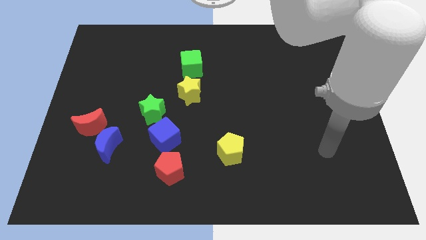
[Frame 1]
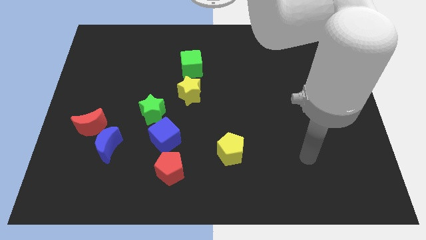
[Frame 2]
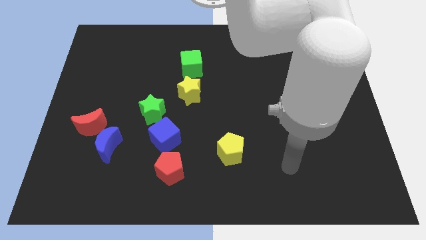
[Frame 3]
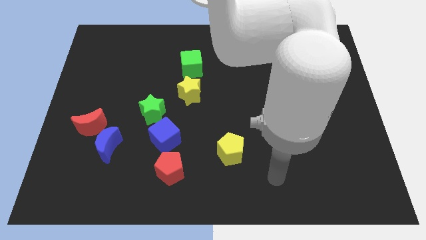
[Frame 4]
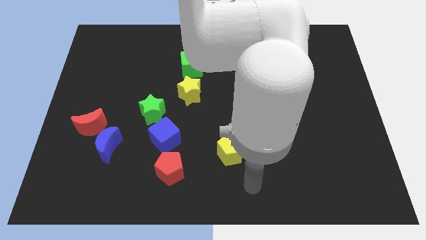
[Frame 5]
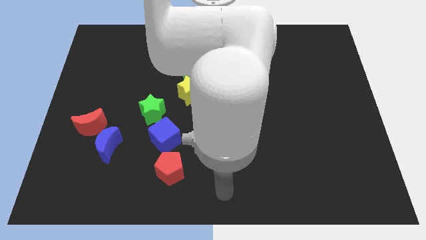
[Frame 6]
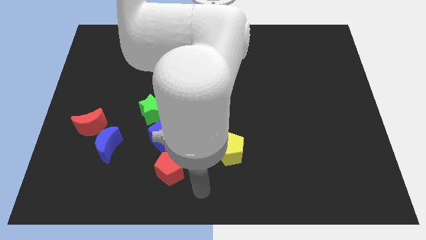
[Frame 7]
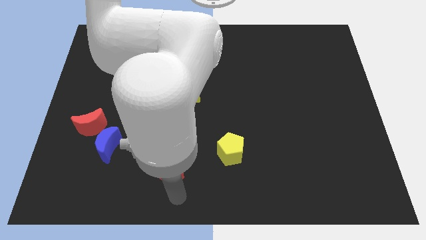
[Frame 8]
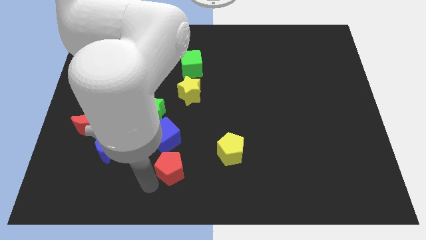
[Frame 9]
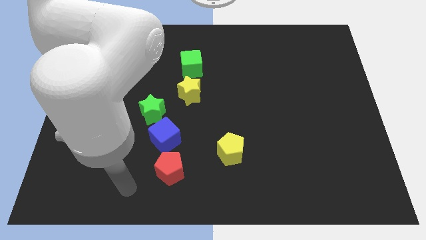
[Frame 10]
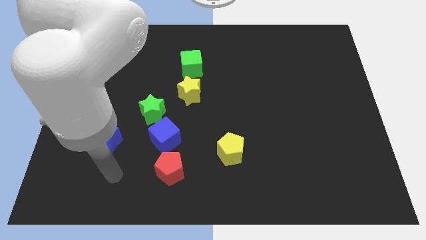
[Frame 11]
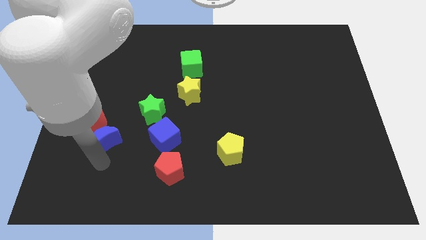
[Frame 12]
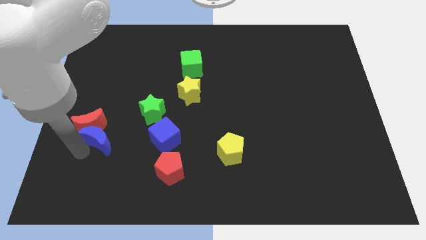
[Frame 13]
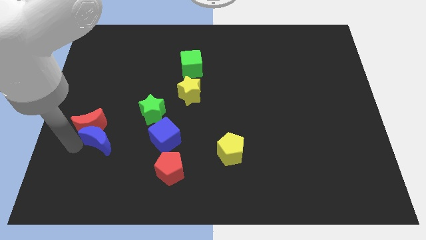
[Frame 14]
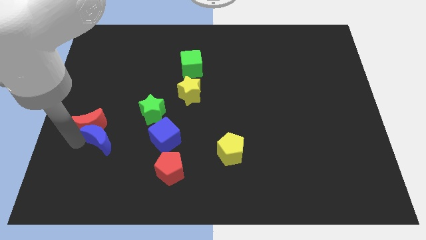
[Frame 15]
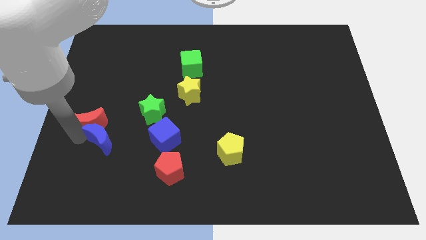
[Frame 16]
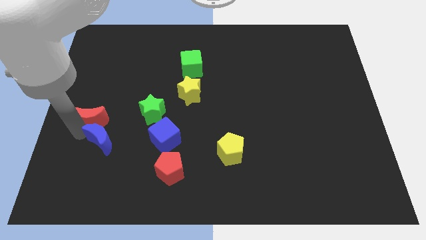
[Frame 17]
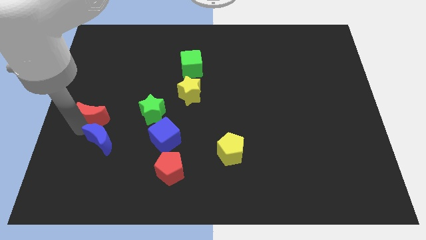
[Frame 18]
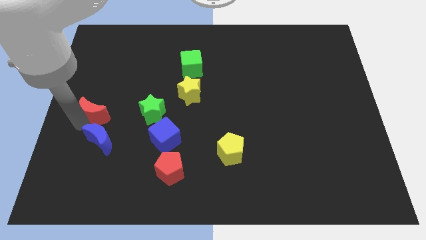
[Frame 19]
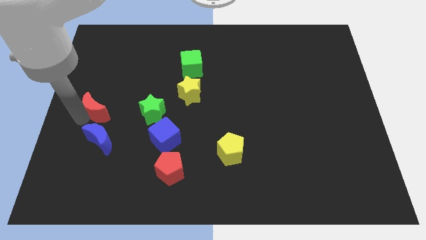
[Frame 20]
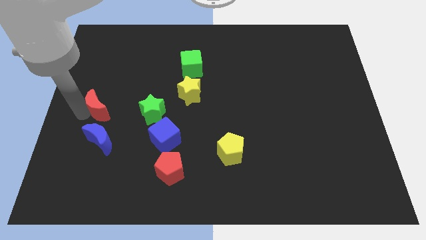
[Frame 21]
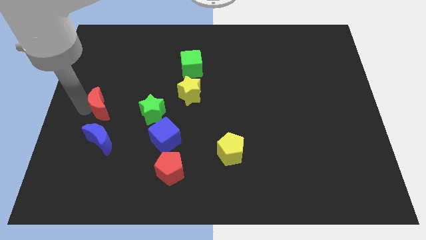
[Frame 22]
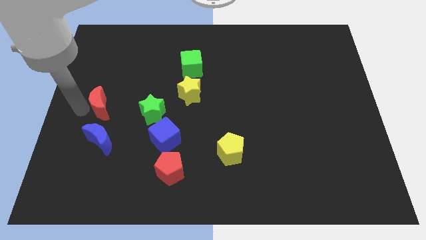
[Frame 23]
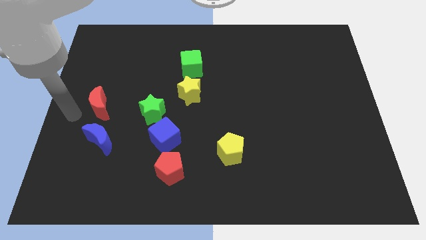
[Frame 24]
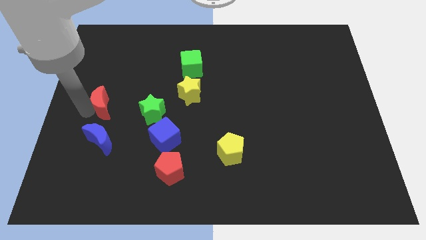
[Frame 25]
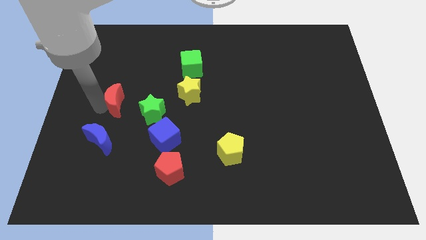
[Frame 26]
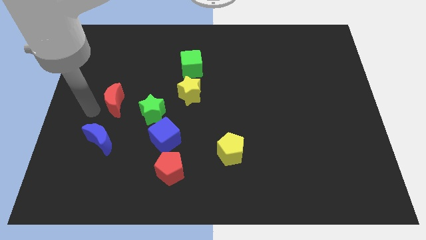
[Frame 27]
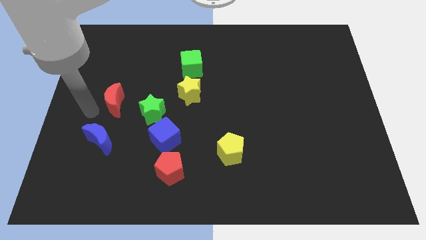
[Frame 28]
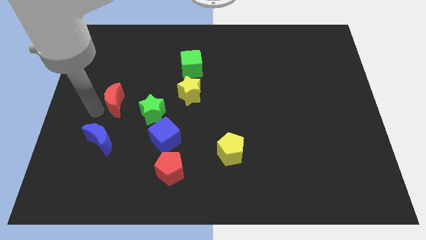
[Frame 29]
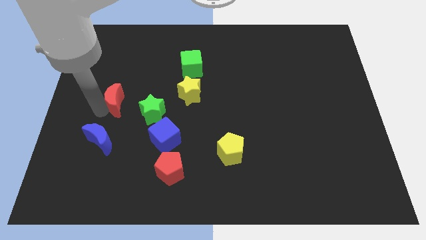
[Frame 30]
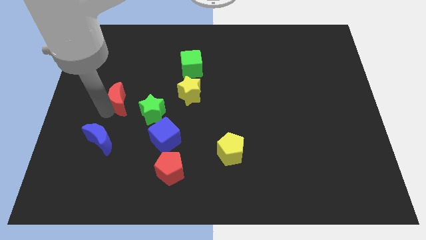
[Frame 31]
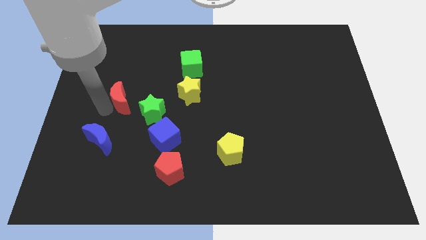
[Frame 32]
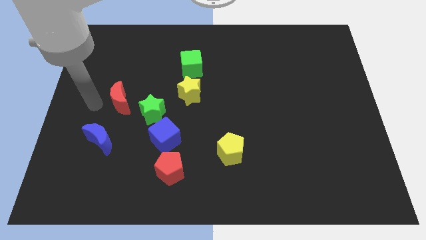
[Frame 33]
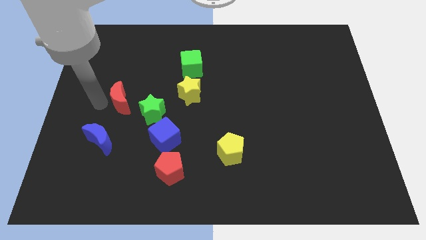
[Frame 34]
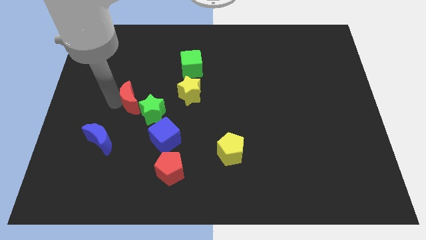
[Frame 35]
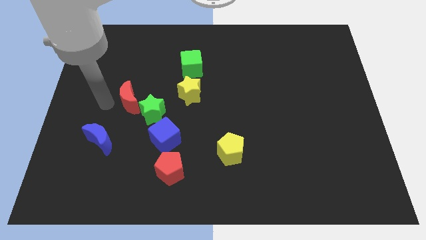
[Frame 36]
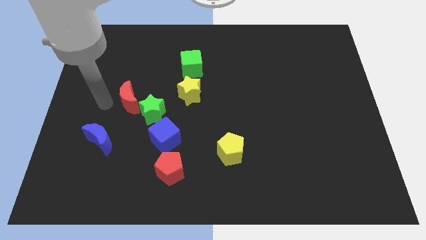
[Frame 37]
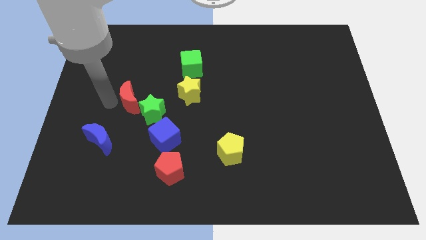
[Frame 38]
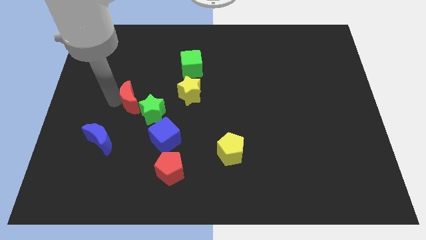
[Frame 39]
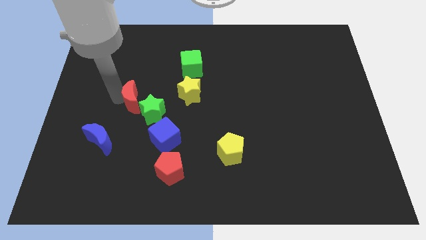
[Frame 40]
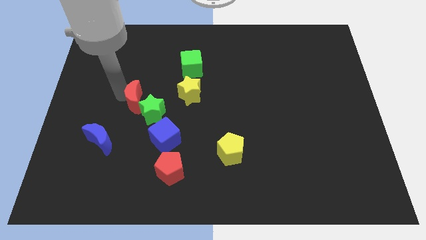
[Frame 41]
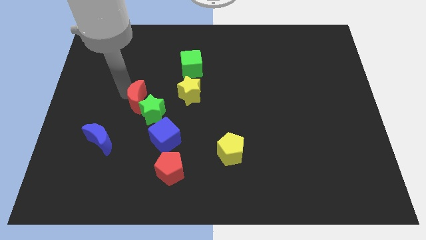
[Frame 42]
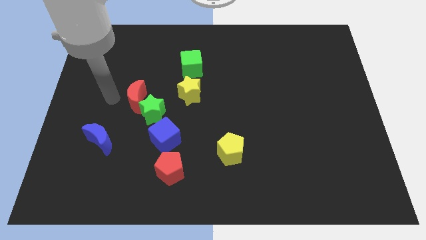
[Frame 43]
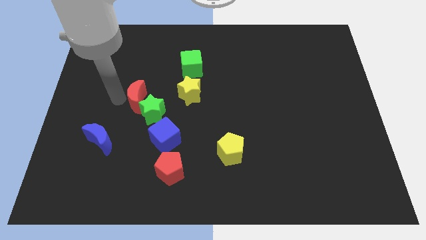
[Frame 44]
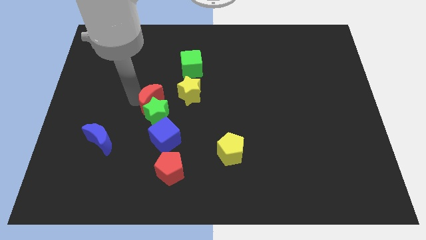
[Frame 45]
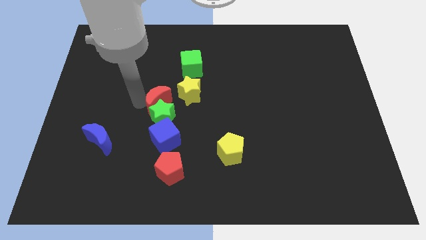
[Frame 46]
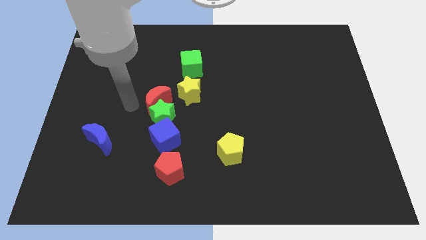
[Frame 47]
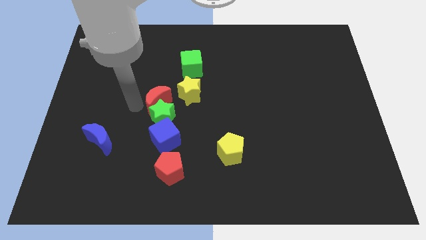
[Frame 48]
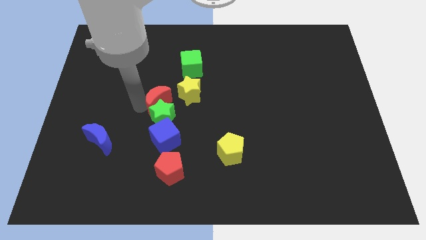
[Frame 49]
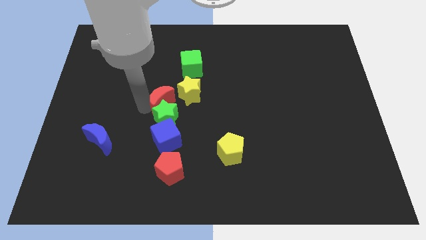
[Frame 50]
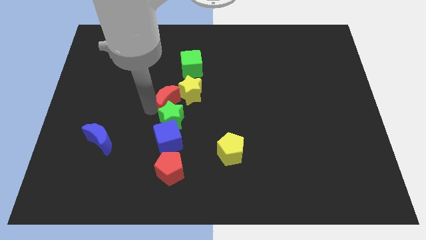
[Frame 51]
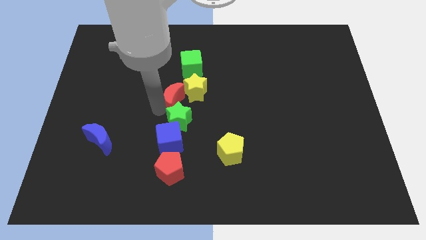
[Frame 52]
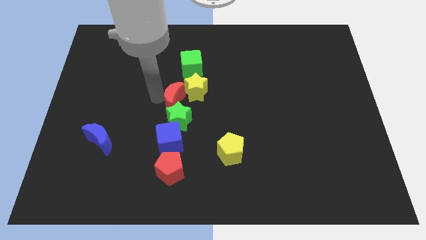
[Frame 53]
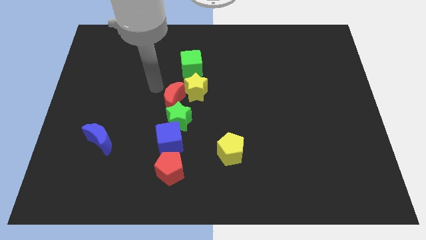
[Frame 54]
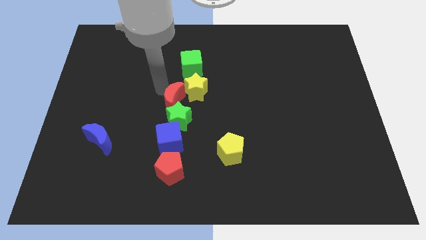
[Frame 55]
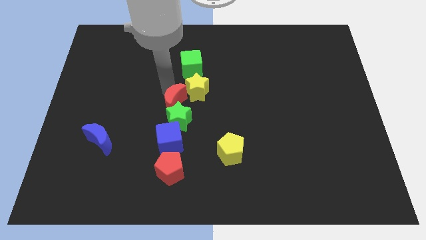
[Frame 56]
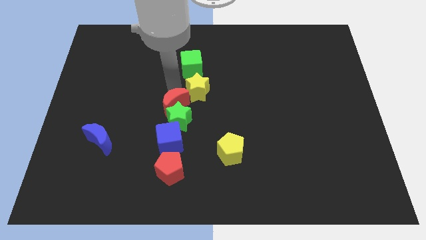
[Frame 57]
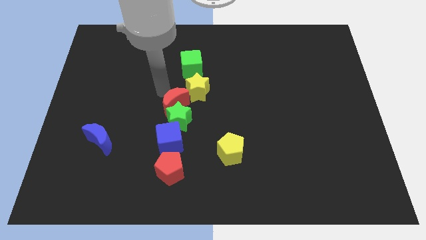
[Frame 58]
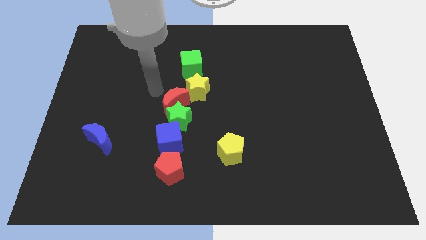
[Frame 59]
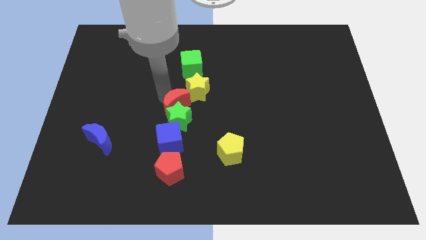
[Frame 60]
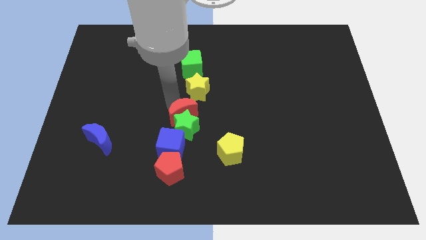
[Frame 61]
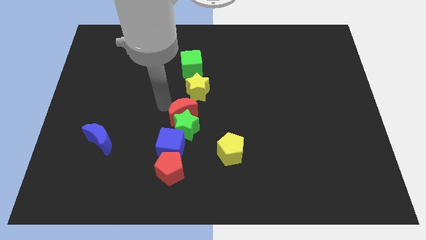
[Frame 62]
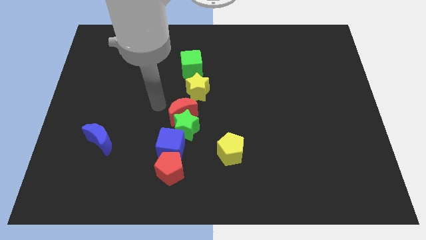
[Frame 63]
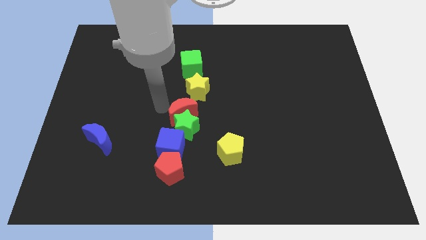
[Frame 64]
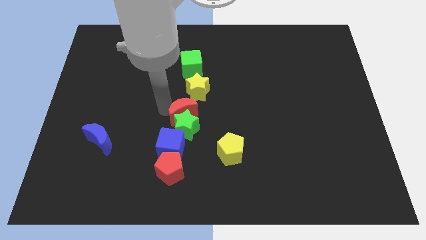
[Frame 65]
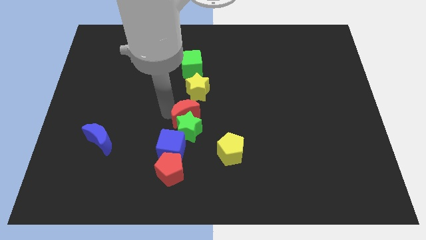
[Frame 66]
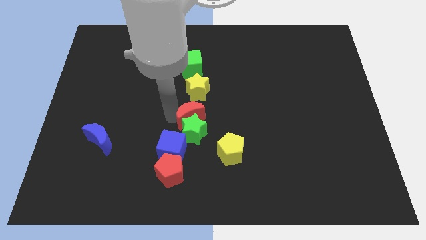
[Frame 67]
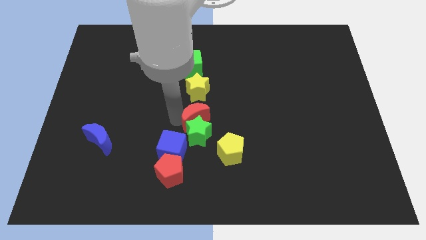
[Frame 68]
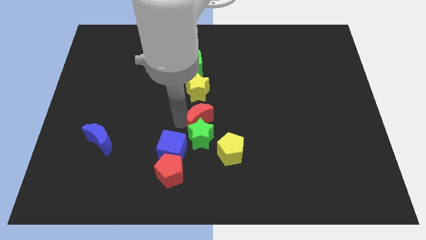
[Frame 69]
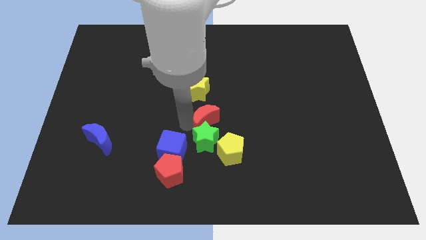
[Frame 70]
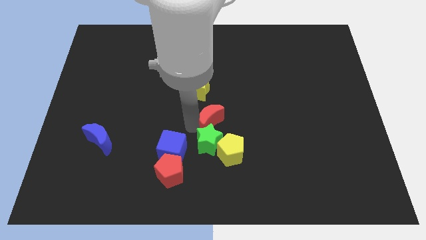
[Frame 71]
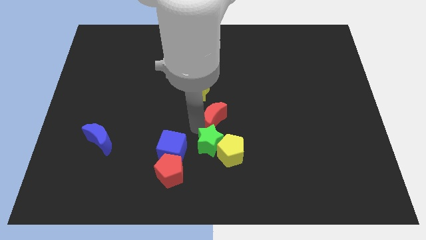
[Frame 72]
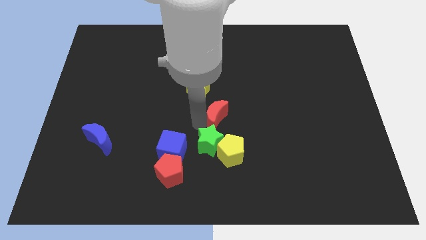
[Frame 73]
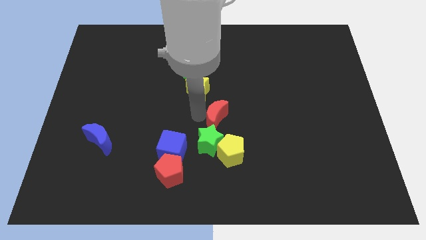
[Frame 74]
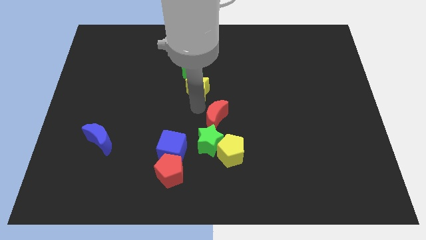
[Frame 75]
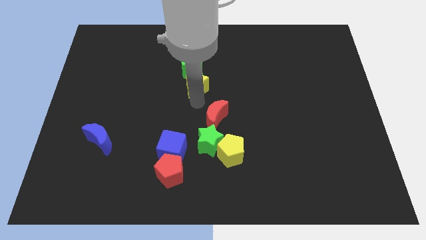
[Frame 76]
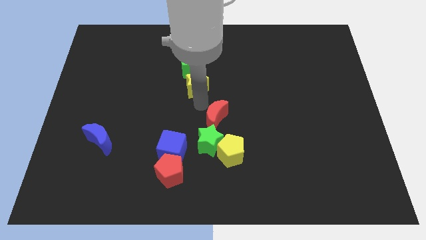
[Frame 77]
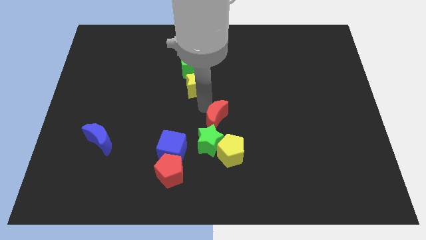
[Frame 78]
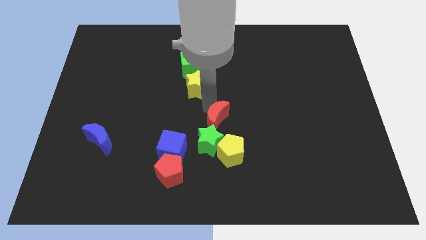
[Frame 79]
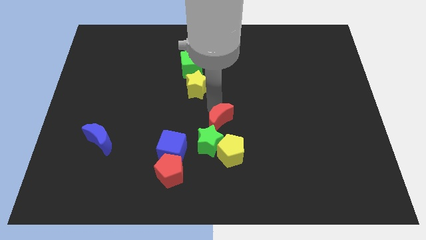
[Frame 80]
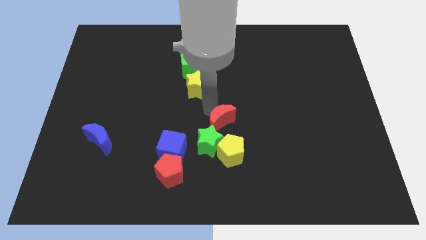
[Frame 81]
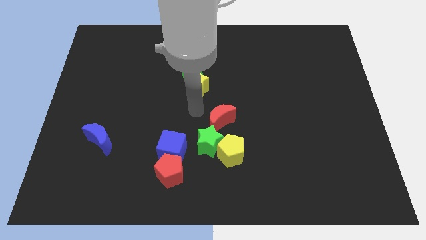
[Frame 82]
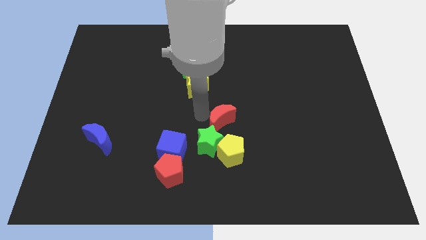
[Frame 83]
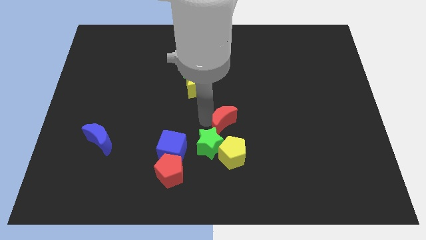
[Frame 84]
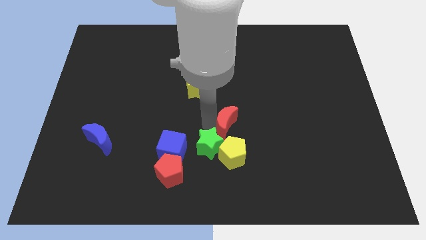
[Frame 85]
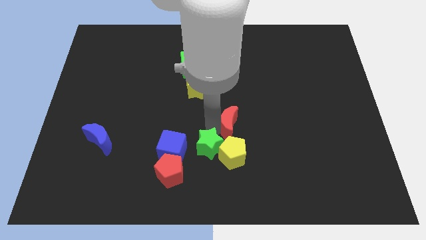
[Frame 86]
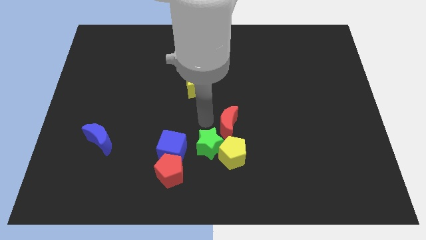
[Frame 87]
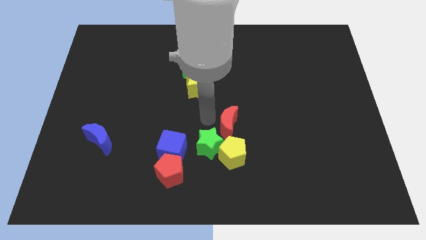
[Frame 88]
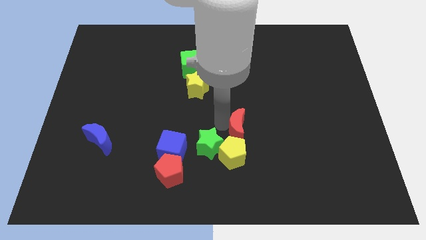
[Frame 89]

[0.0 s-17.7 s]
move the red moon diagonally up and to the right of the yellow pentagon
